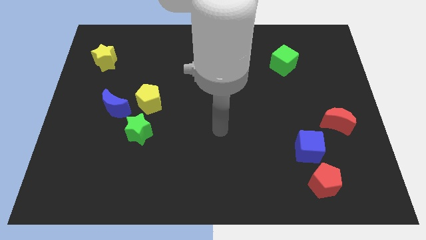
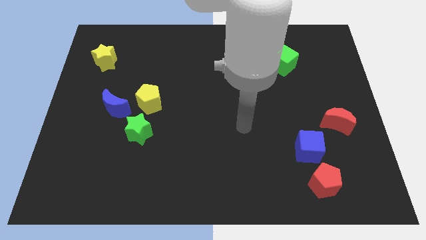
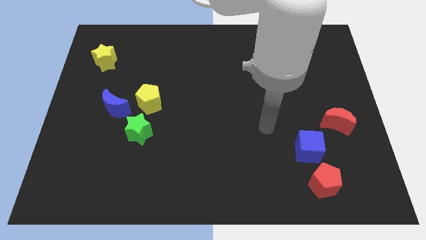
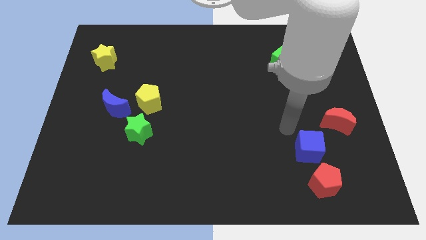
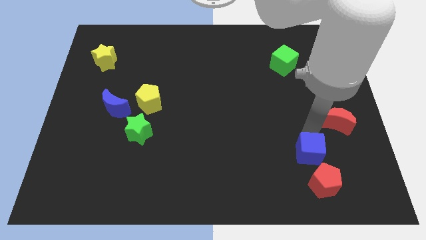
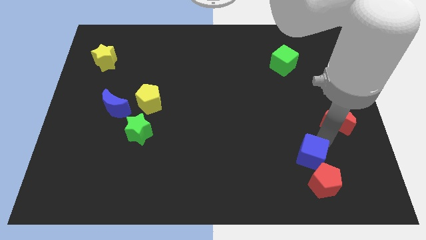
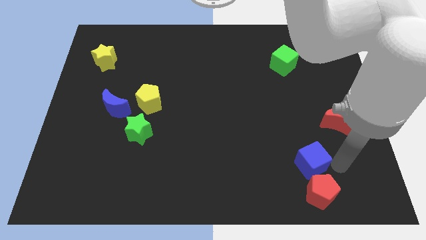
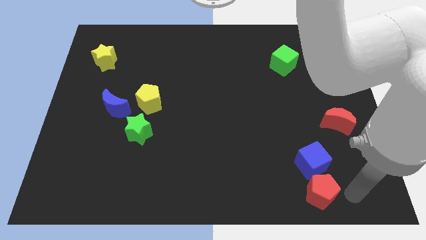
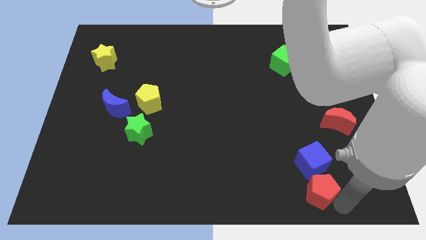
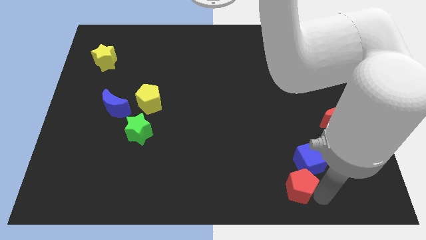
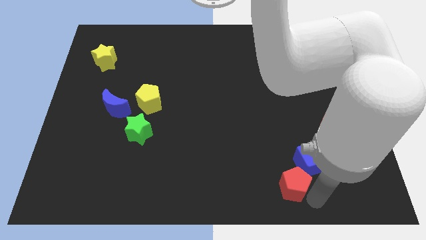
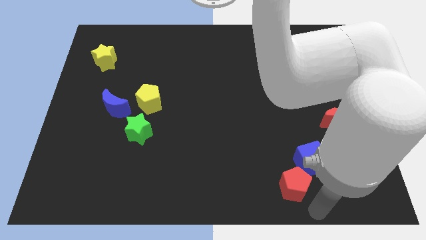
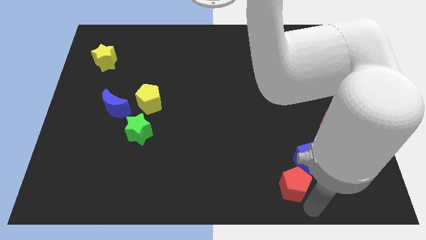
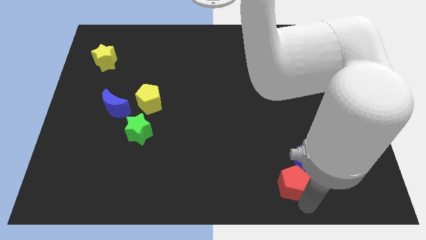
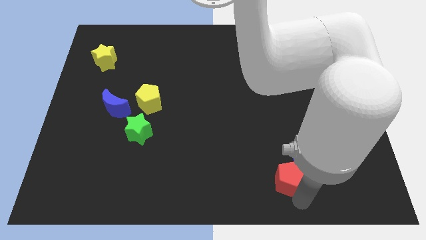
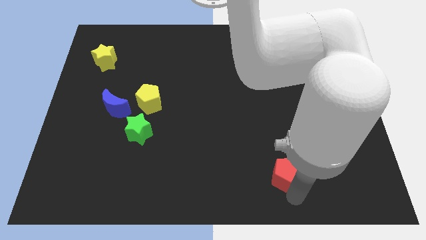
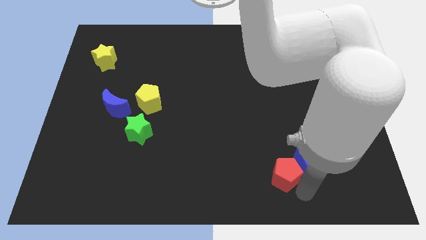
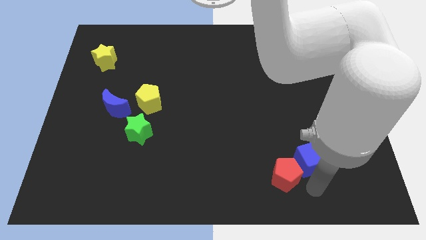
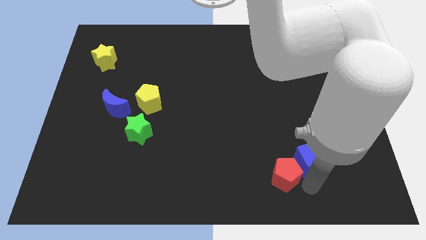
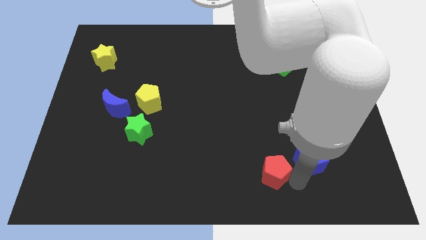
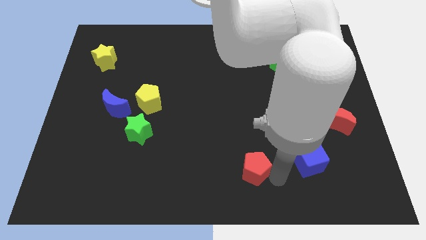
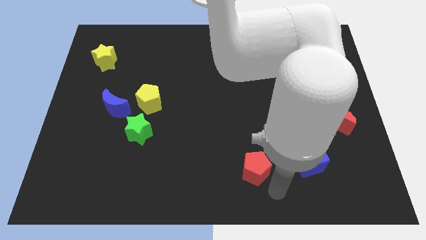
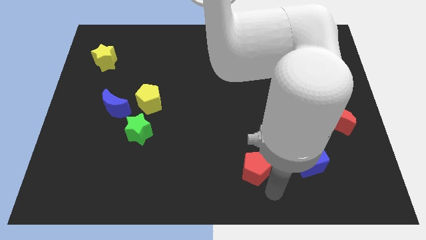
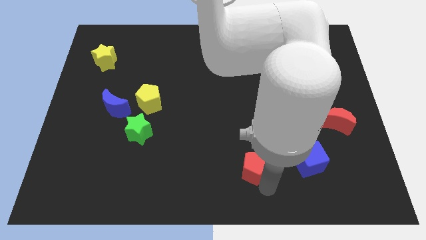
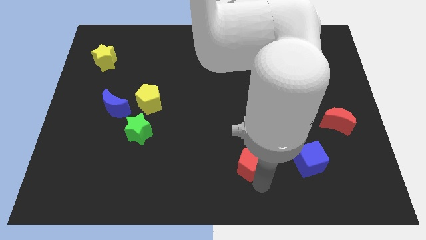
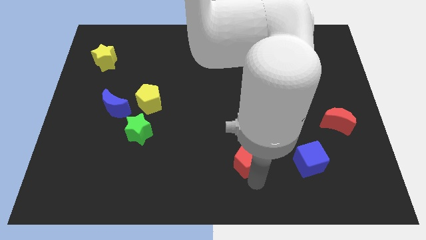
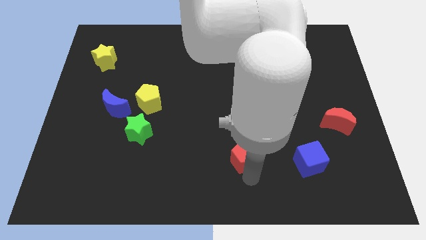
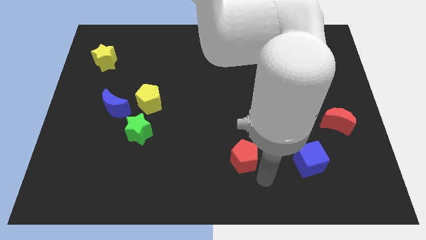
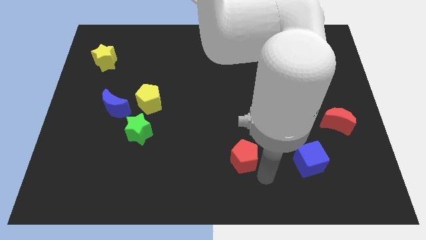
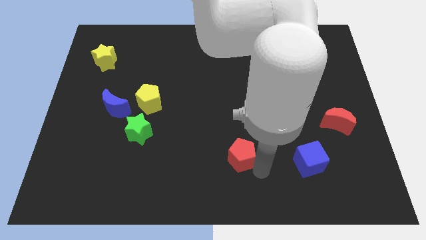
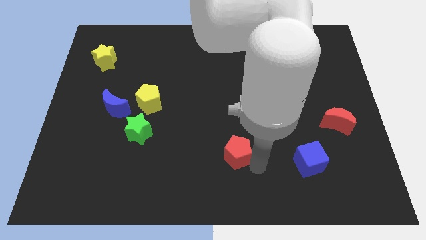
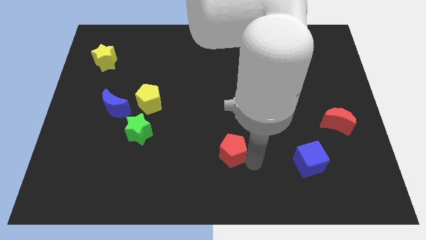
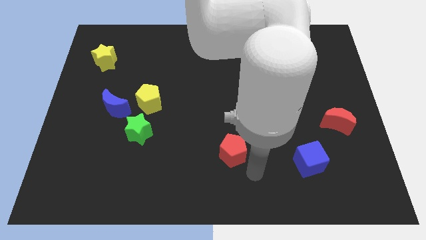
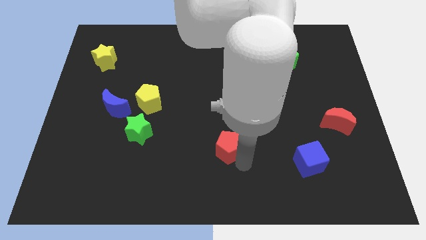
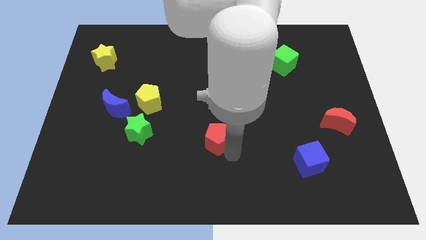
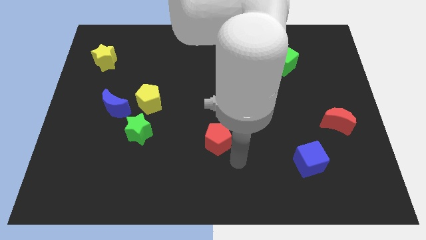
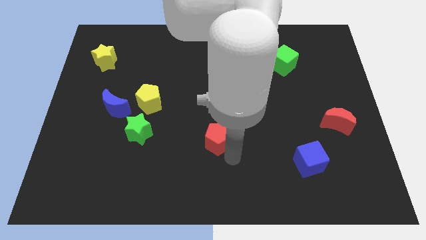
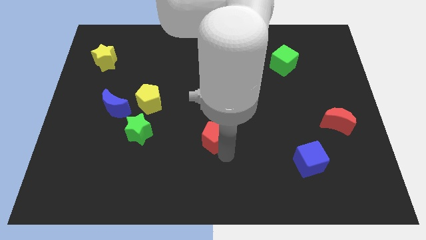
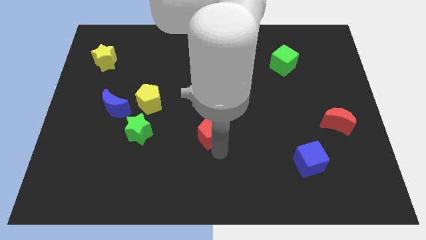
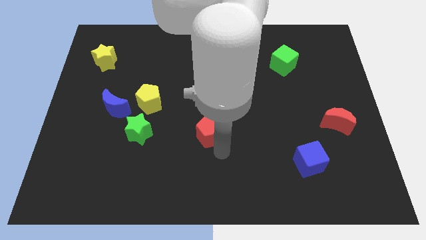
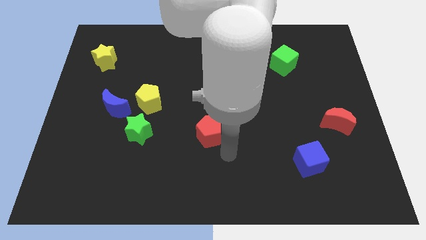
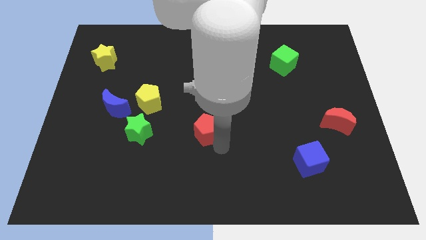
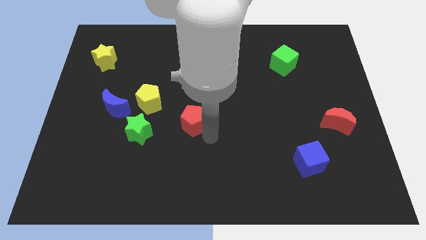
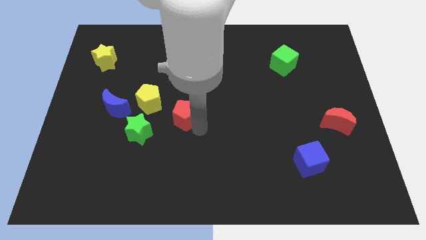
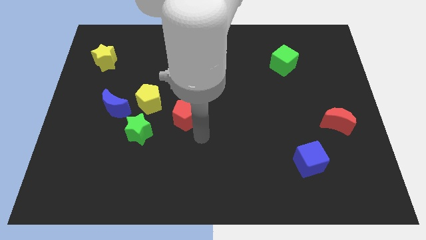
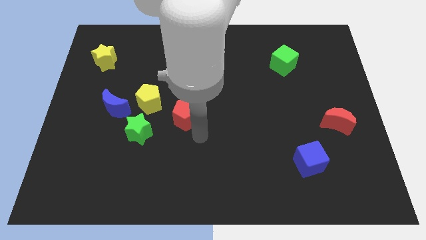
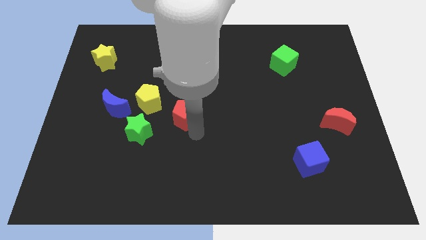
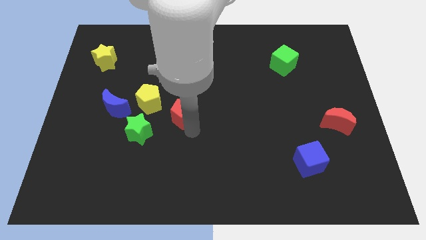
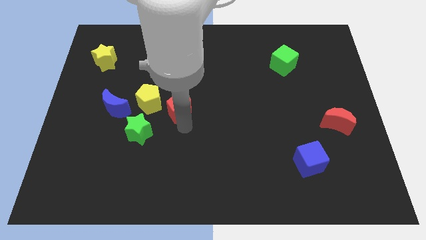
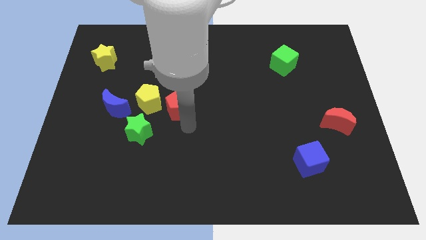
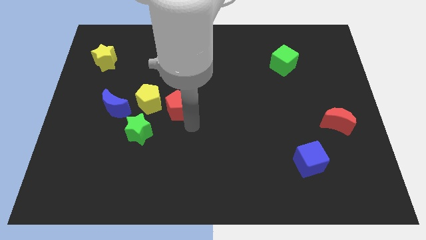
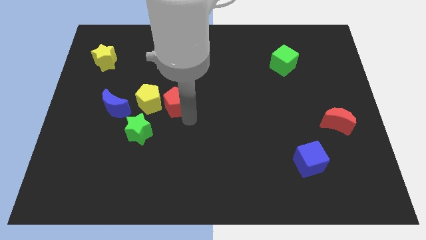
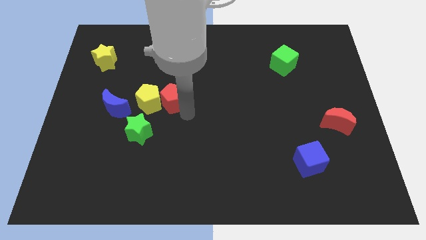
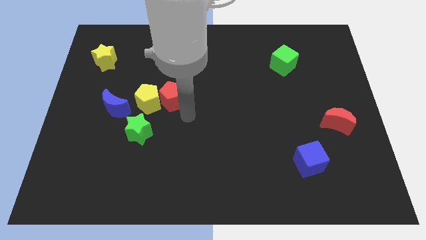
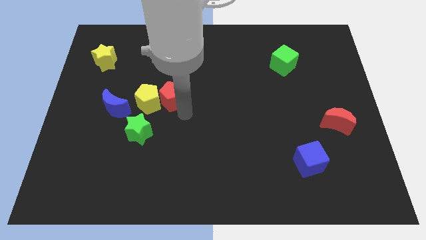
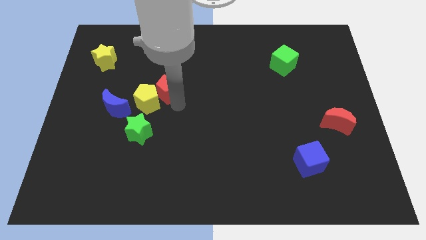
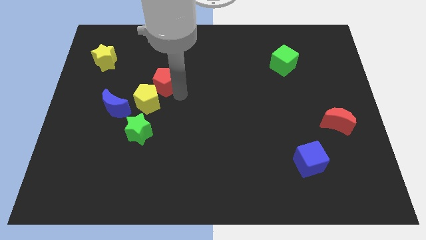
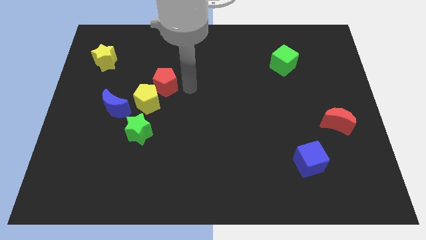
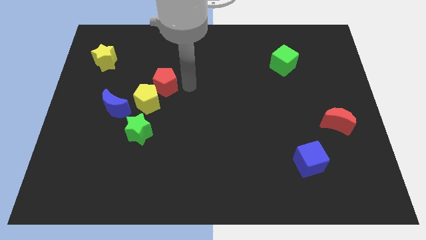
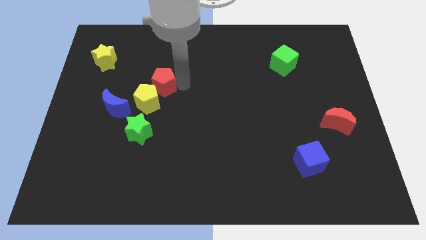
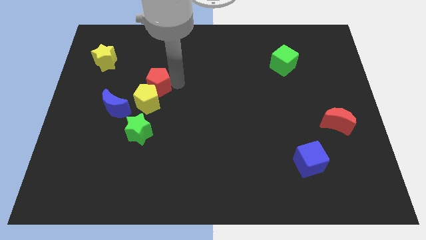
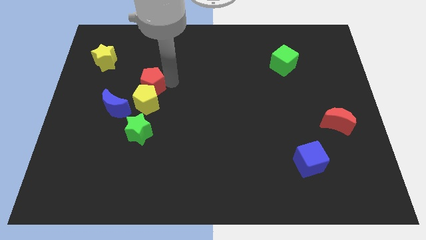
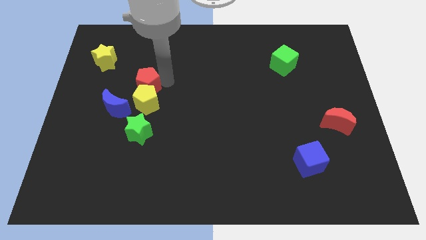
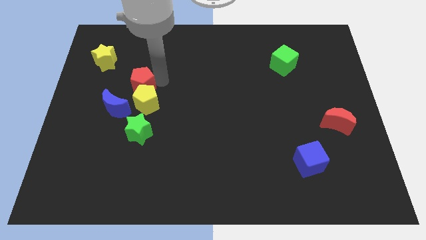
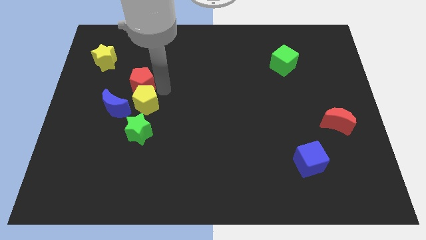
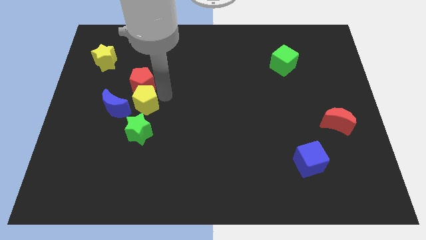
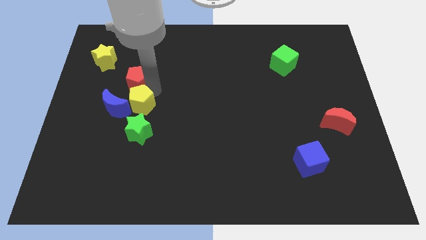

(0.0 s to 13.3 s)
put the red pentagon above the blue moon

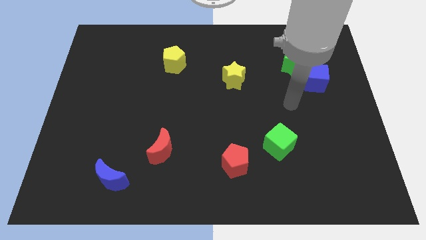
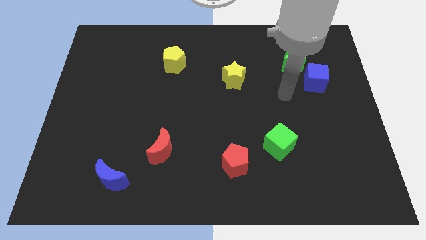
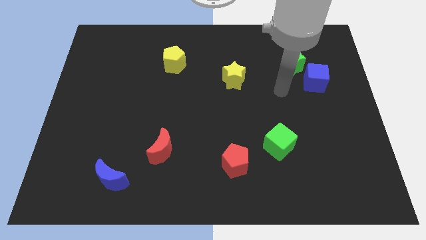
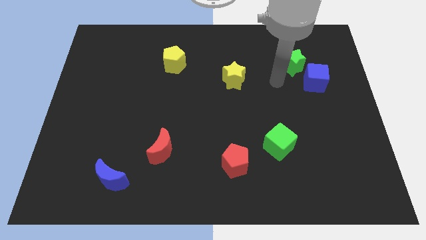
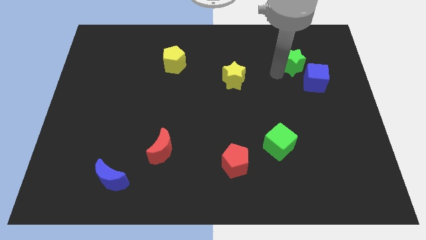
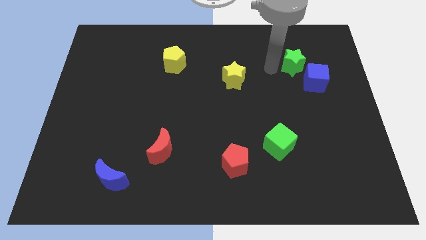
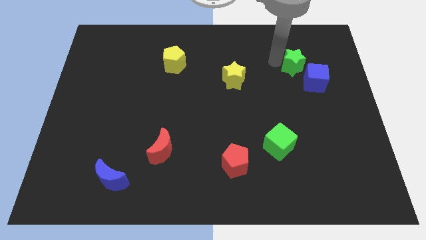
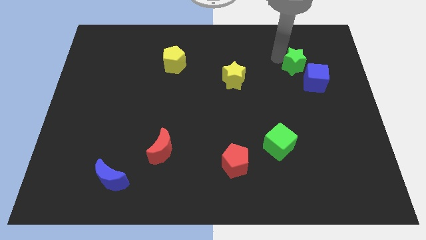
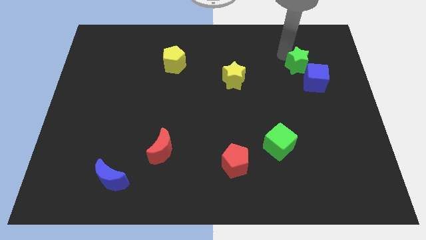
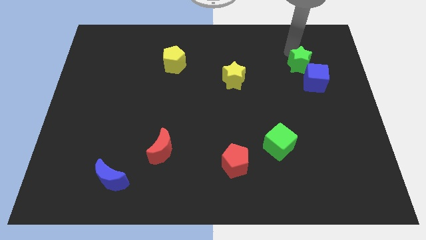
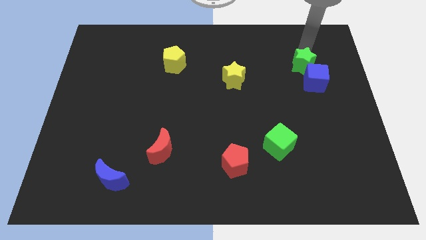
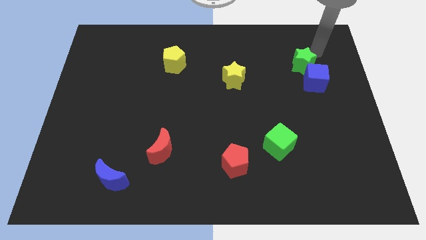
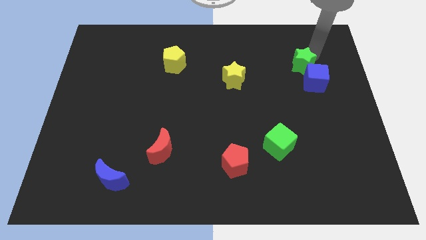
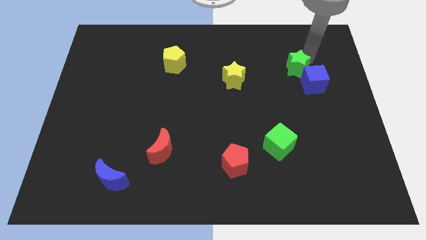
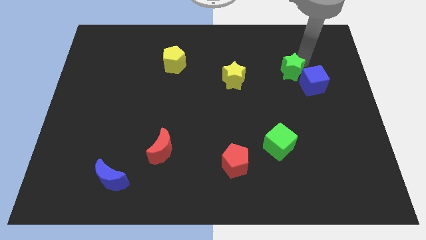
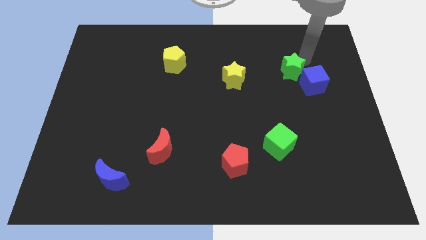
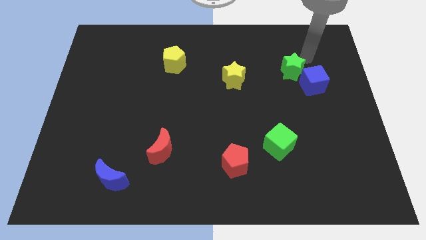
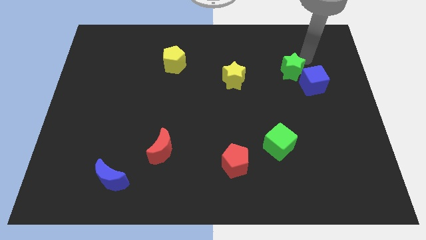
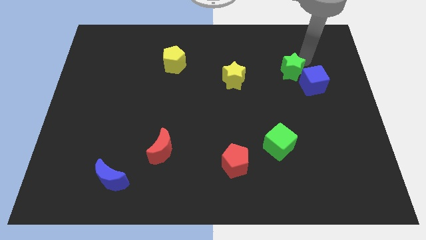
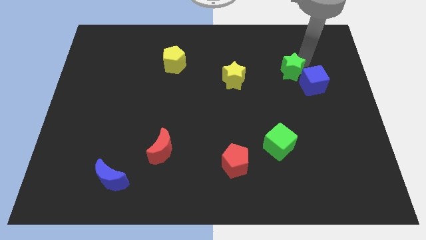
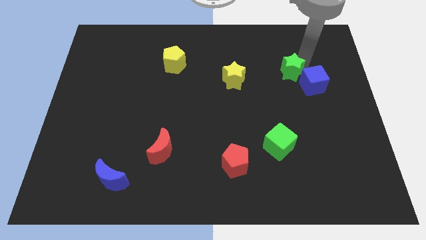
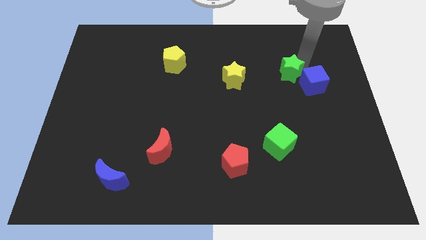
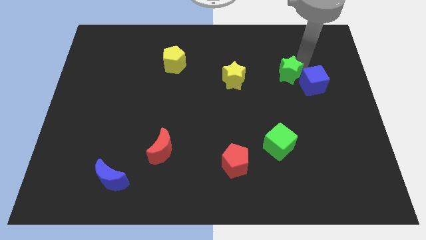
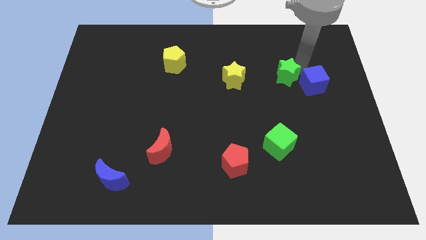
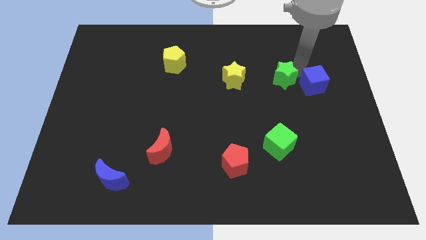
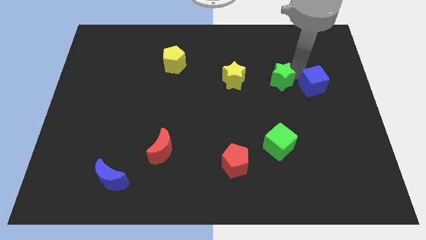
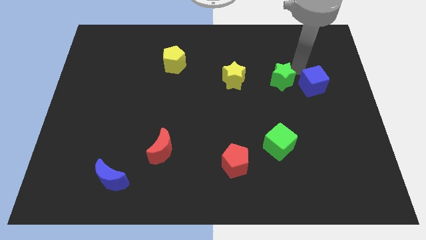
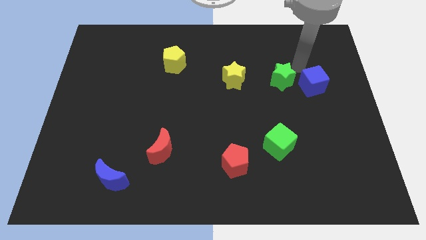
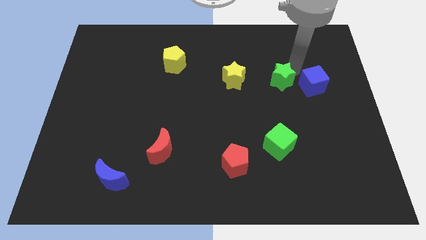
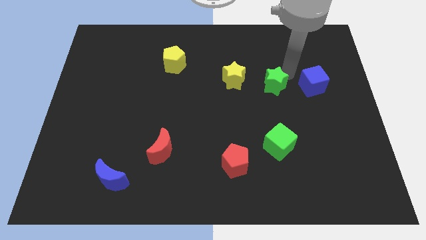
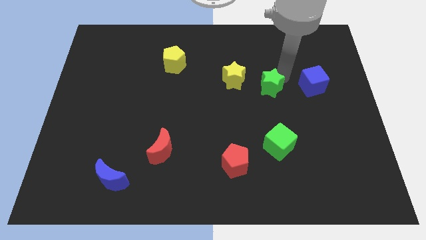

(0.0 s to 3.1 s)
push the green star to the bottom right side of the yellow star
